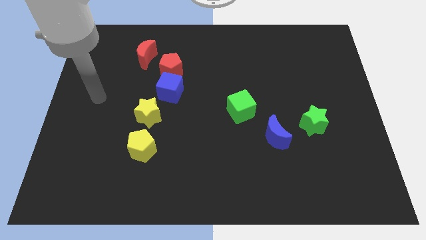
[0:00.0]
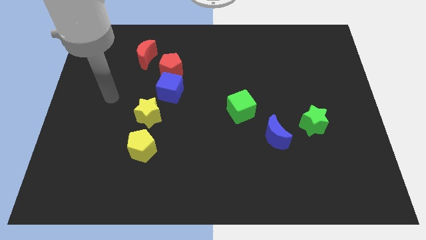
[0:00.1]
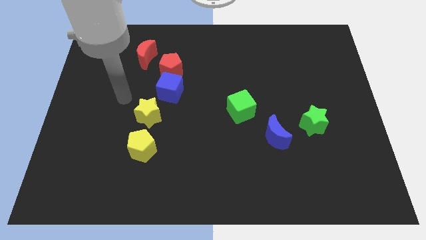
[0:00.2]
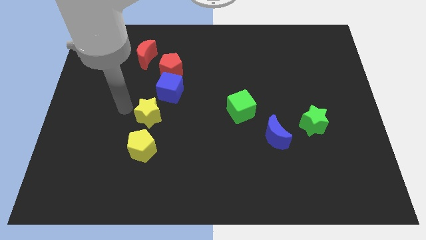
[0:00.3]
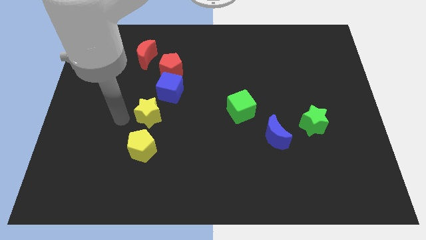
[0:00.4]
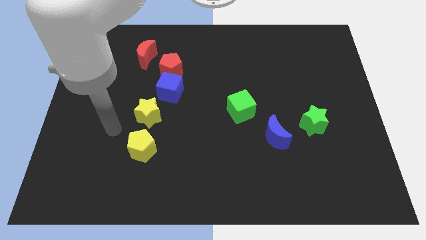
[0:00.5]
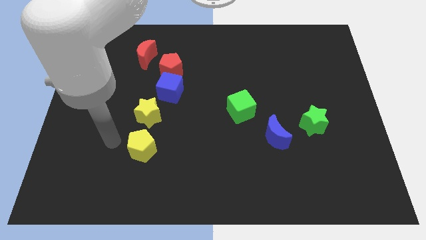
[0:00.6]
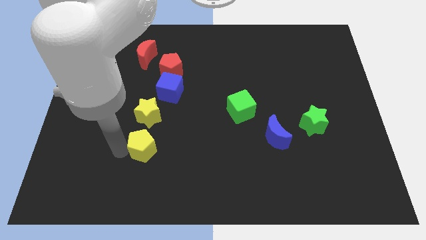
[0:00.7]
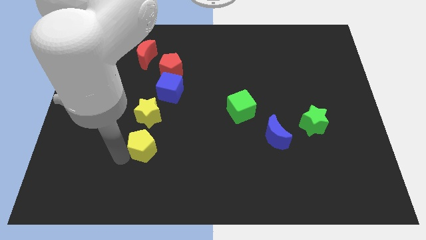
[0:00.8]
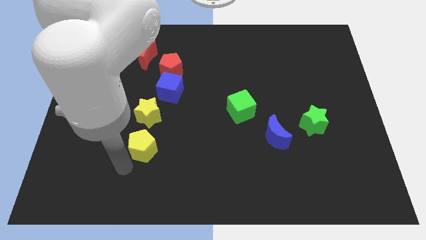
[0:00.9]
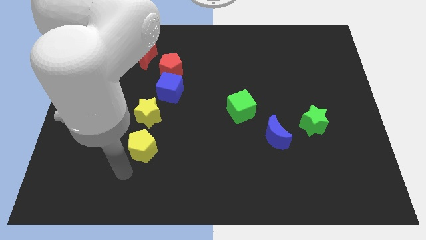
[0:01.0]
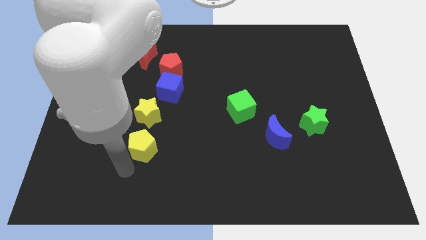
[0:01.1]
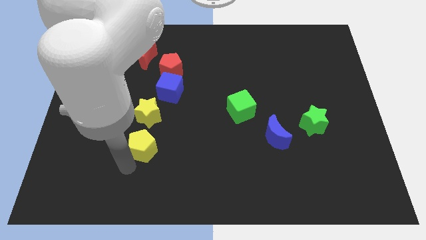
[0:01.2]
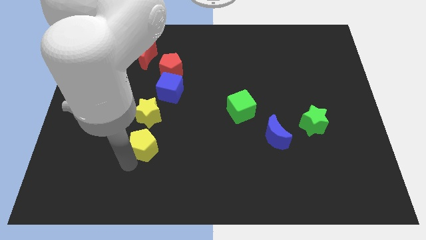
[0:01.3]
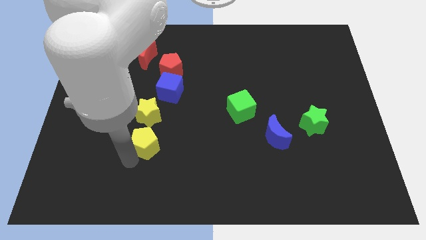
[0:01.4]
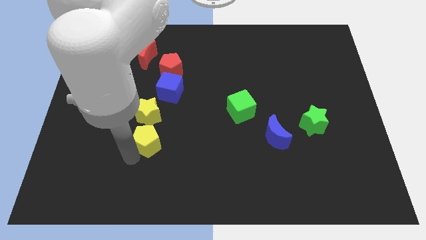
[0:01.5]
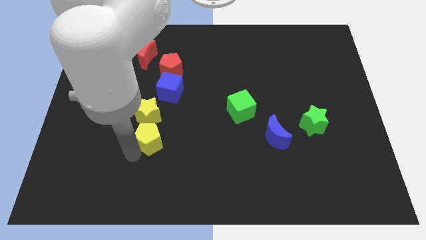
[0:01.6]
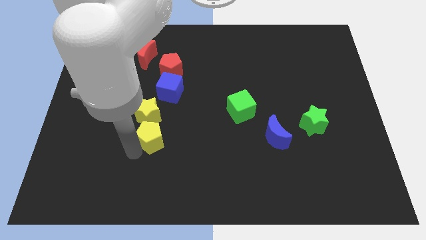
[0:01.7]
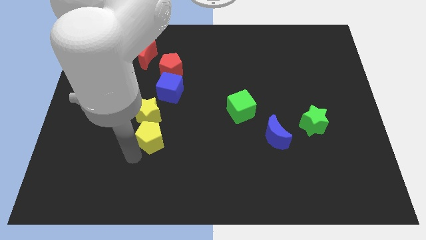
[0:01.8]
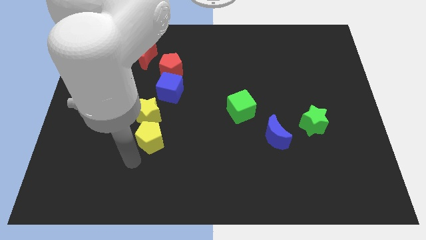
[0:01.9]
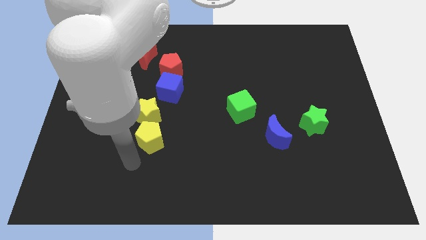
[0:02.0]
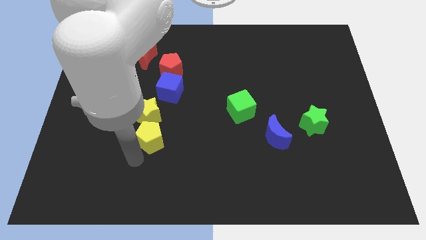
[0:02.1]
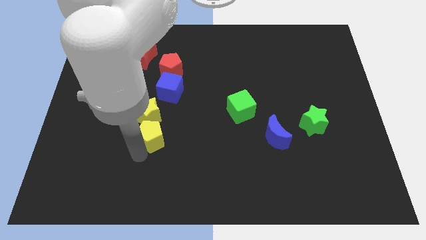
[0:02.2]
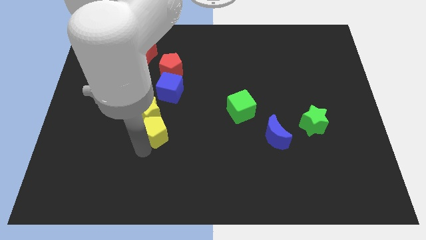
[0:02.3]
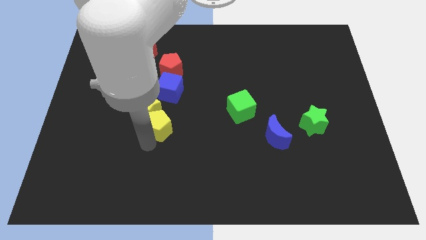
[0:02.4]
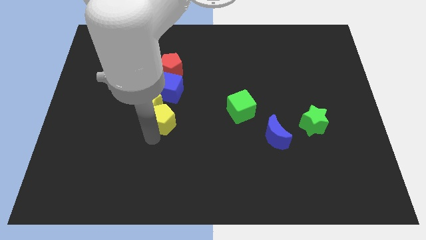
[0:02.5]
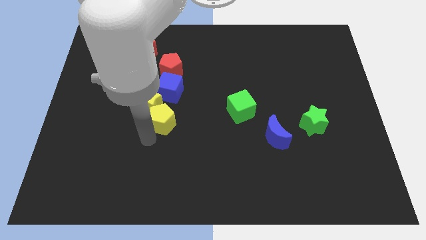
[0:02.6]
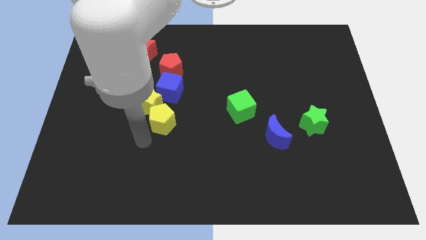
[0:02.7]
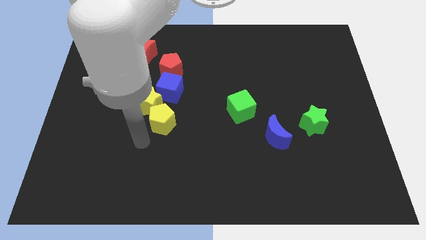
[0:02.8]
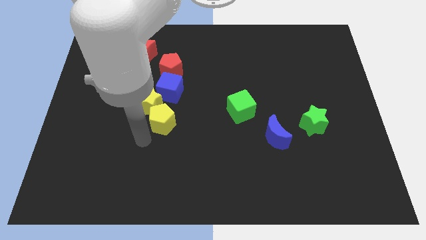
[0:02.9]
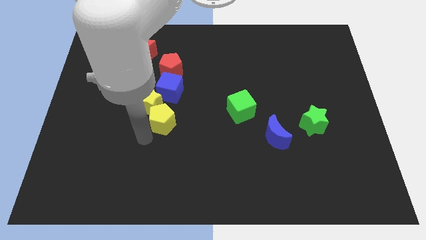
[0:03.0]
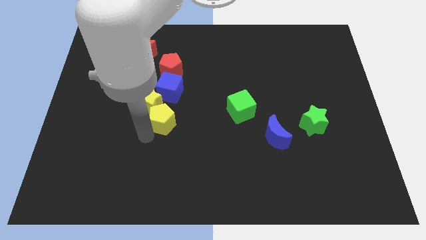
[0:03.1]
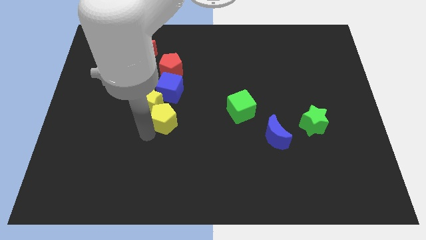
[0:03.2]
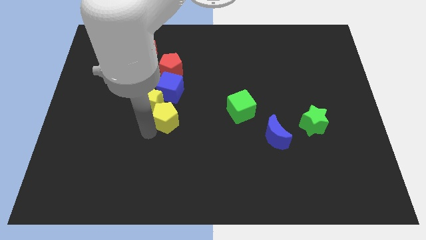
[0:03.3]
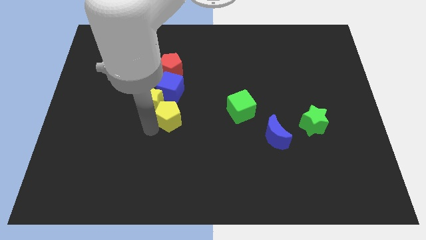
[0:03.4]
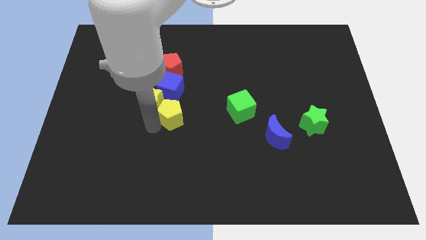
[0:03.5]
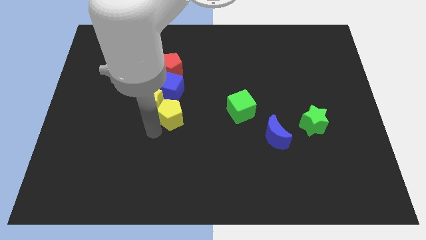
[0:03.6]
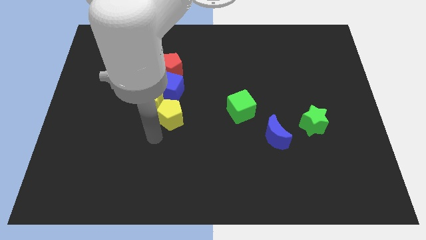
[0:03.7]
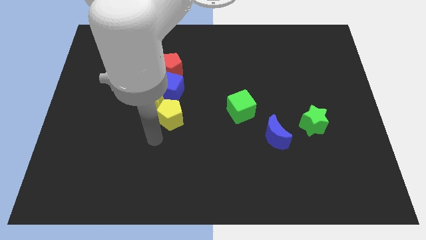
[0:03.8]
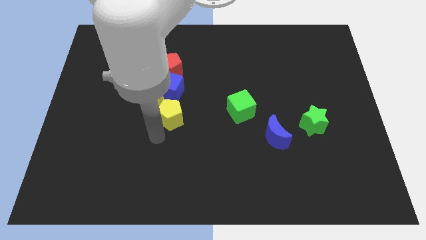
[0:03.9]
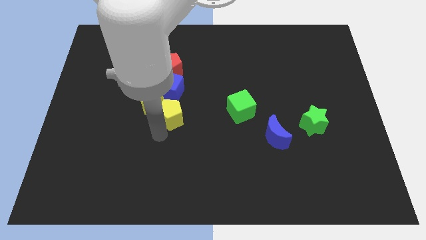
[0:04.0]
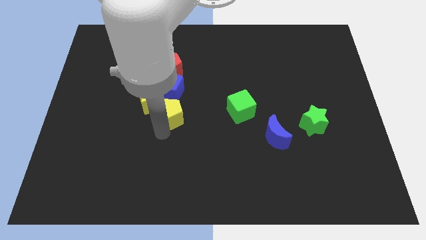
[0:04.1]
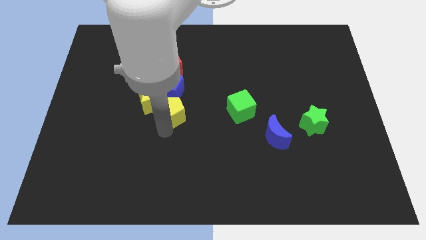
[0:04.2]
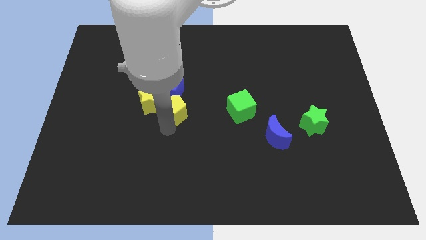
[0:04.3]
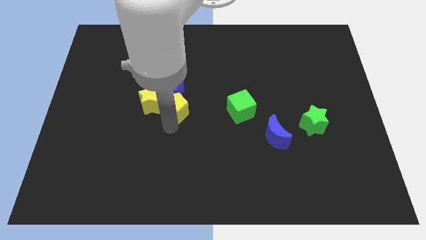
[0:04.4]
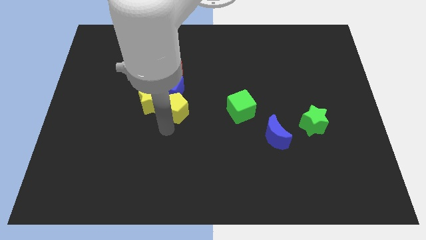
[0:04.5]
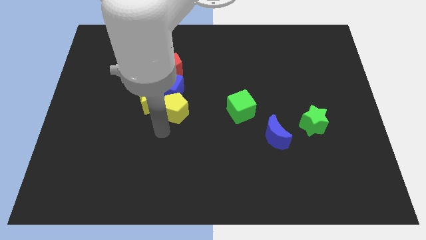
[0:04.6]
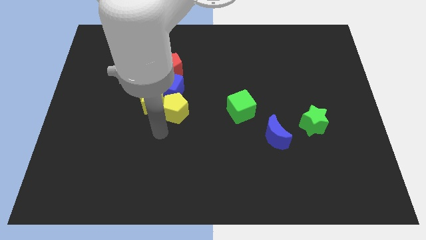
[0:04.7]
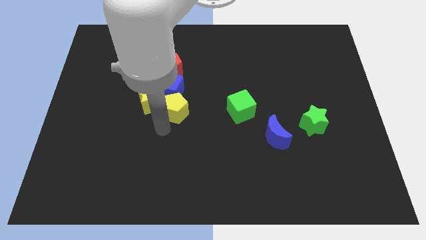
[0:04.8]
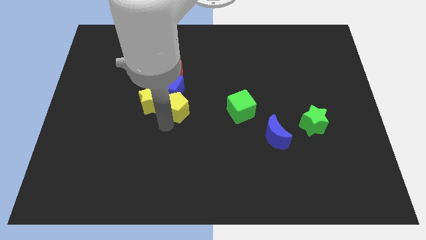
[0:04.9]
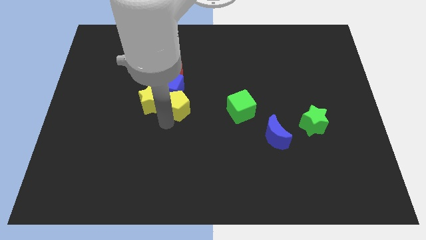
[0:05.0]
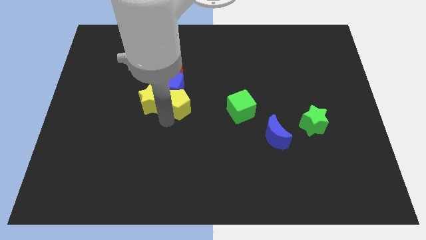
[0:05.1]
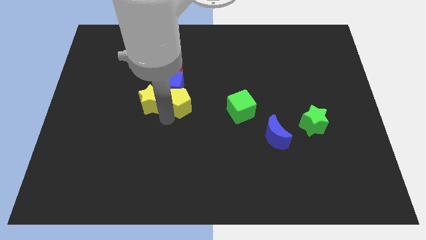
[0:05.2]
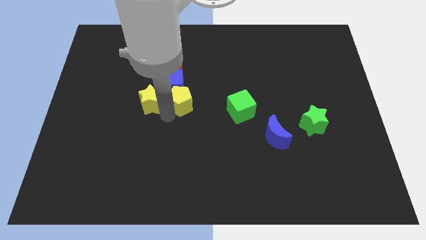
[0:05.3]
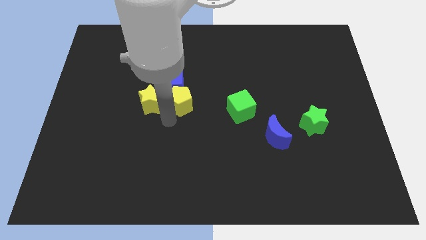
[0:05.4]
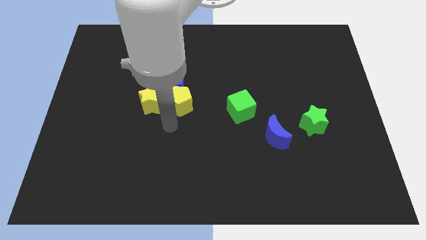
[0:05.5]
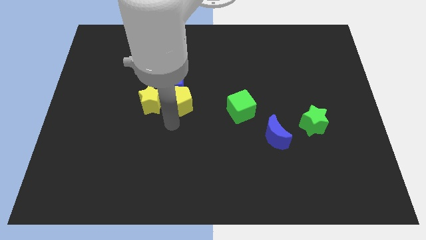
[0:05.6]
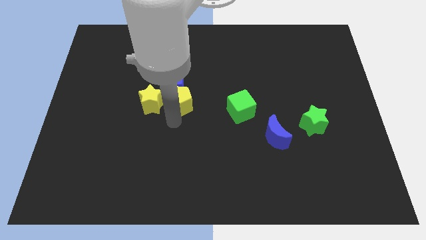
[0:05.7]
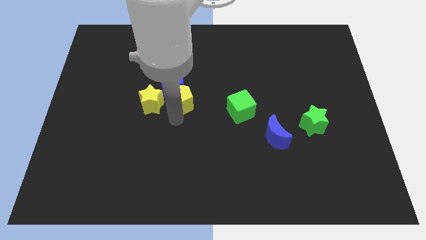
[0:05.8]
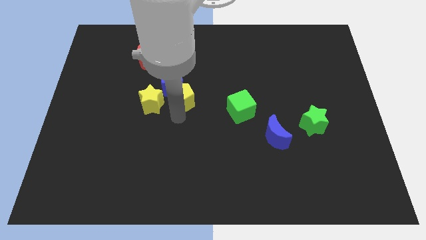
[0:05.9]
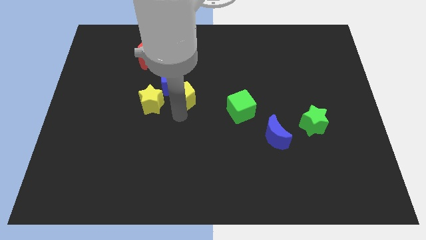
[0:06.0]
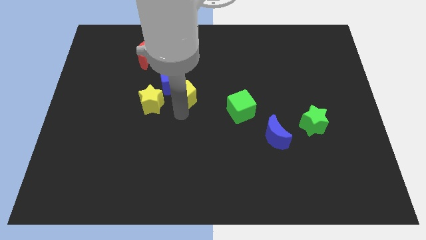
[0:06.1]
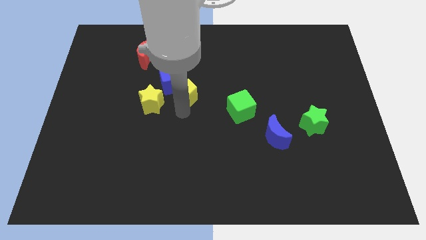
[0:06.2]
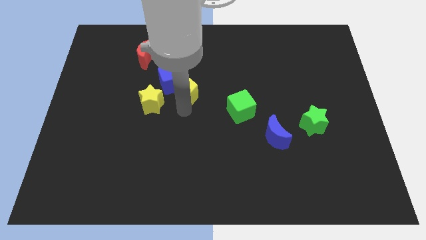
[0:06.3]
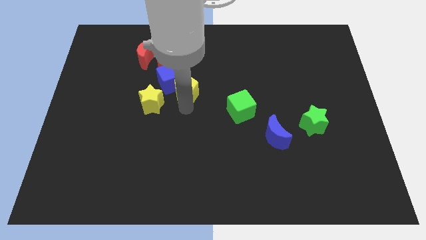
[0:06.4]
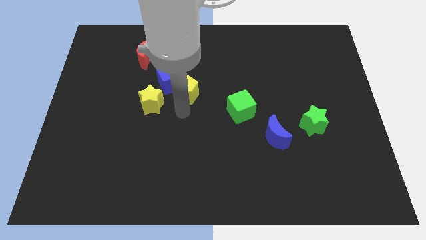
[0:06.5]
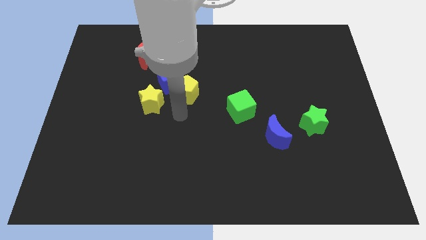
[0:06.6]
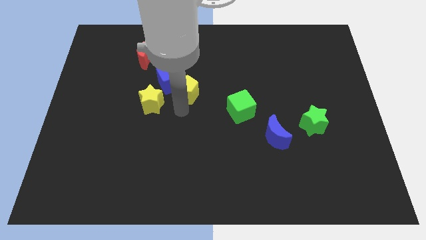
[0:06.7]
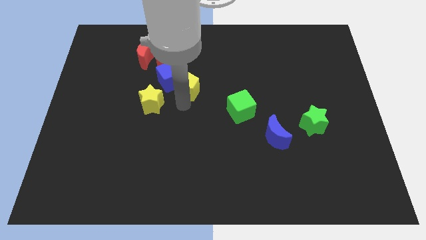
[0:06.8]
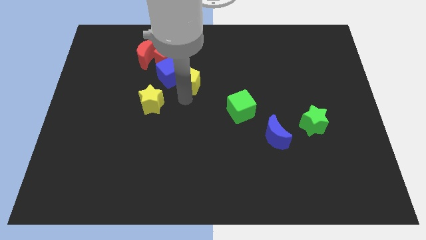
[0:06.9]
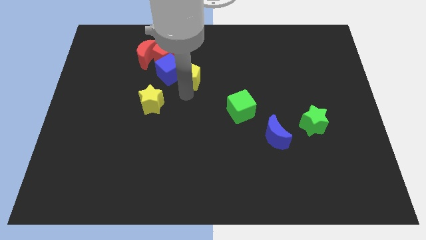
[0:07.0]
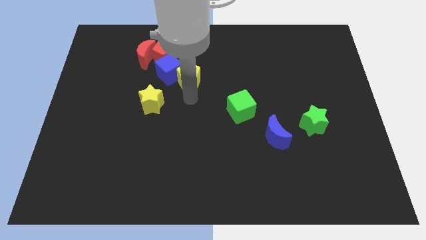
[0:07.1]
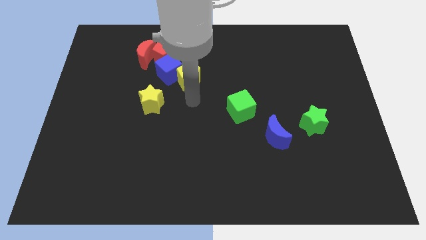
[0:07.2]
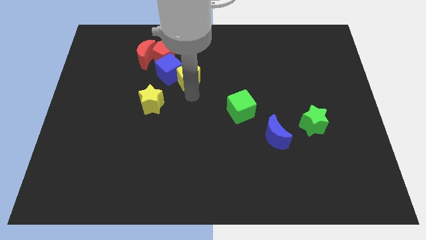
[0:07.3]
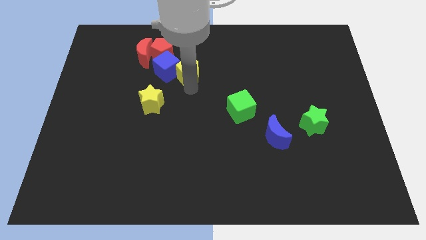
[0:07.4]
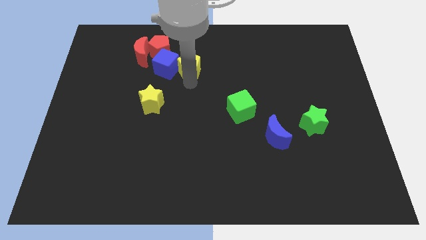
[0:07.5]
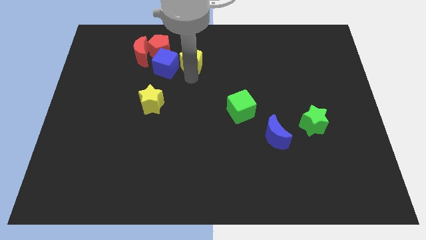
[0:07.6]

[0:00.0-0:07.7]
push the yellow pentagon just right of the red moon
